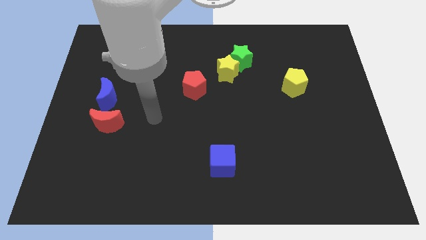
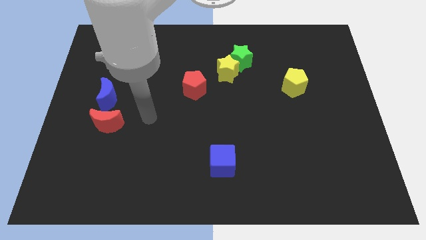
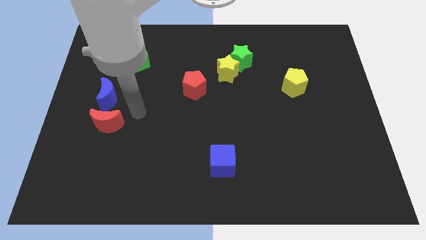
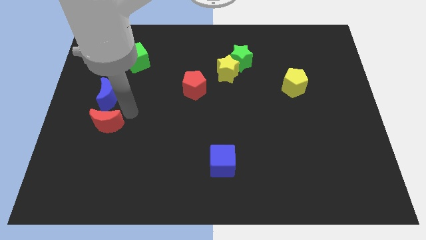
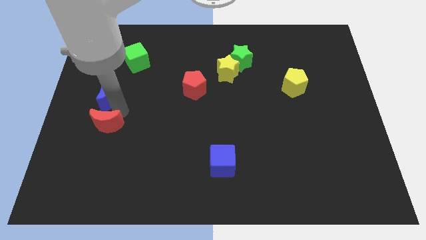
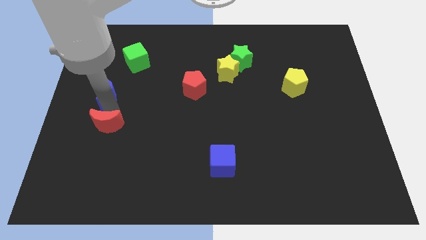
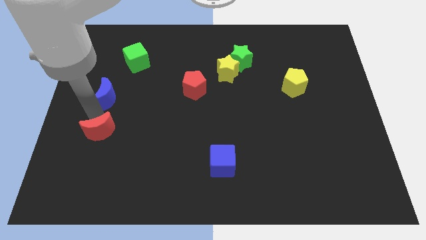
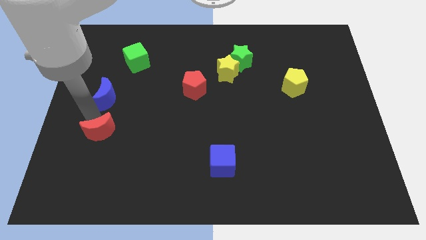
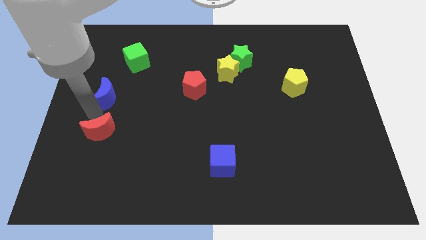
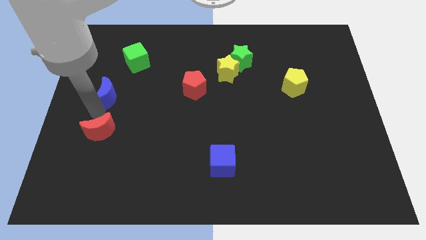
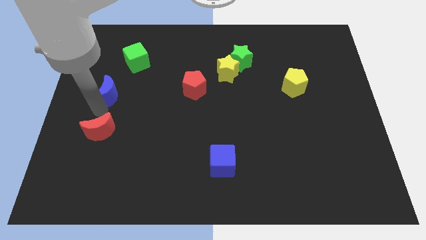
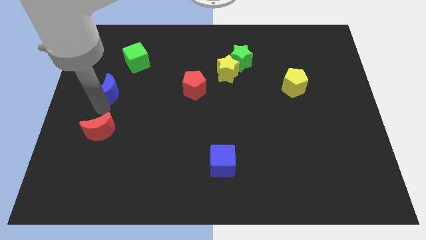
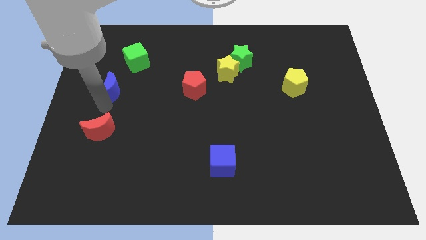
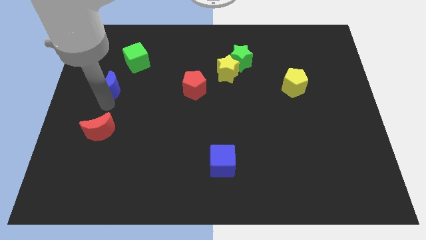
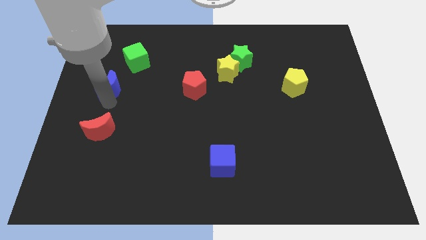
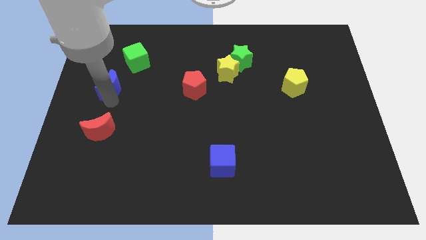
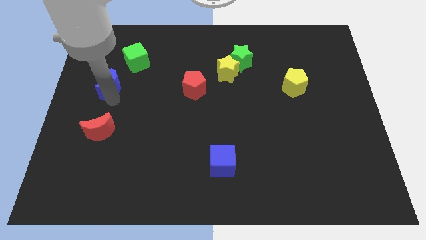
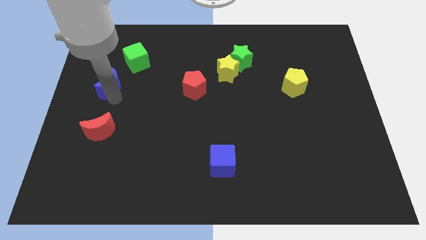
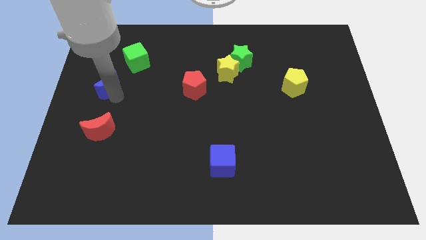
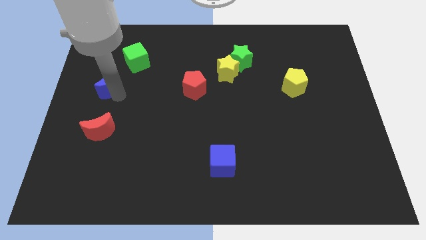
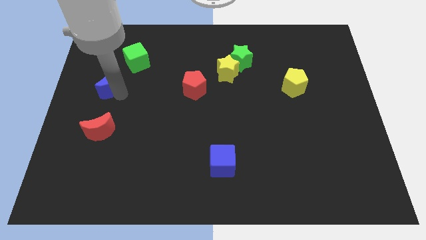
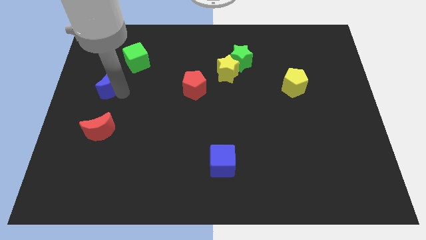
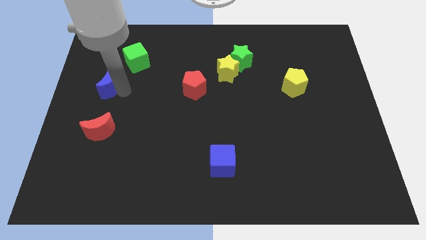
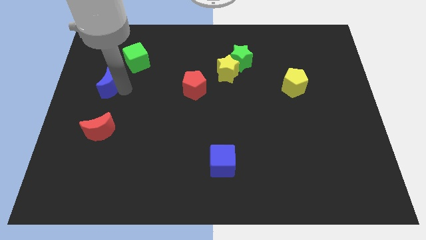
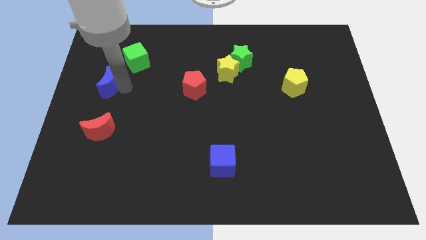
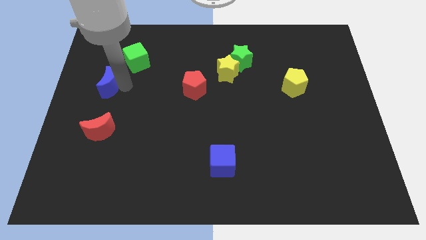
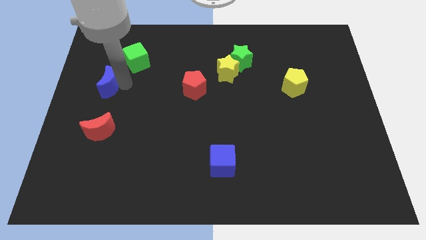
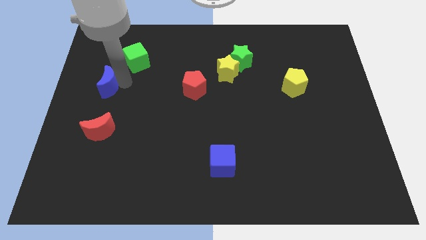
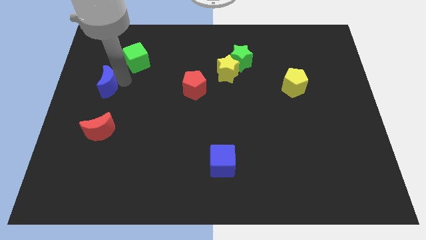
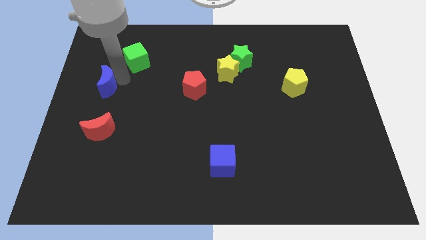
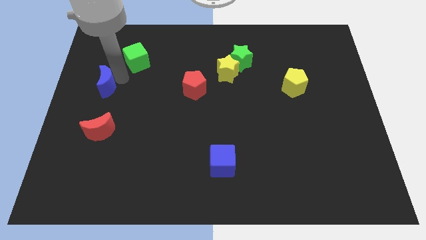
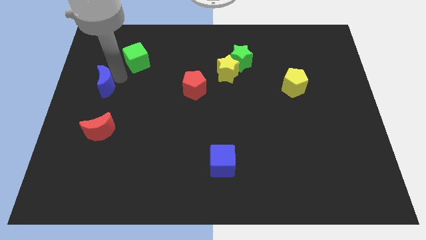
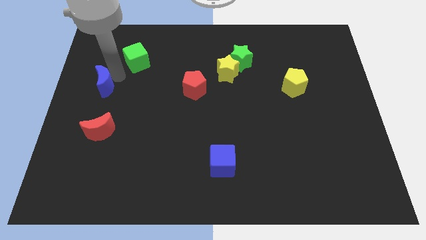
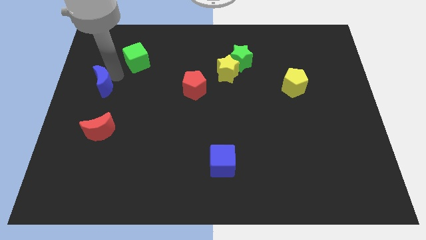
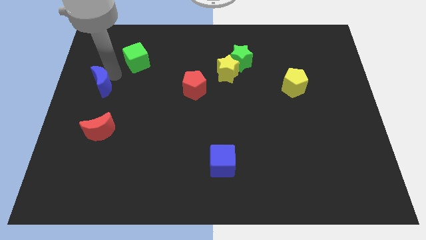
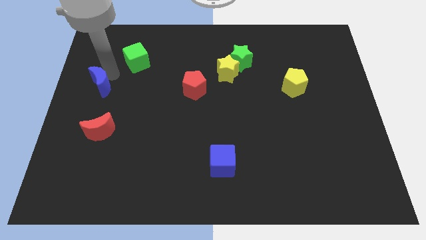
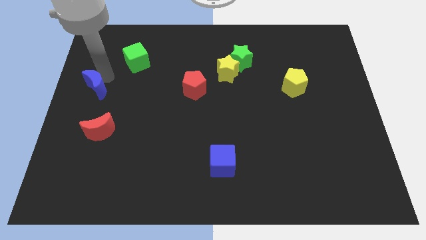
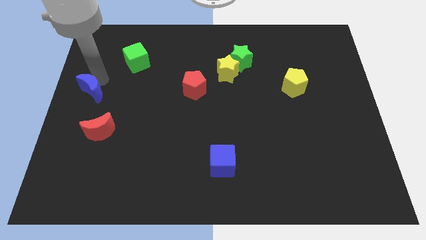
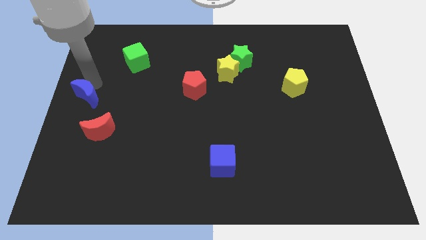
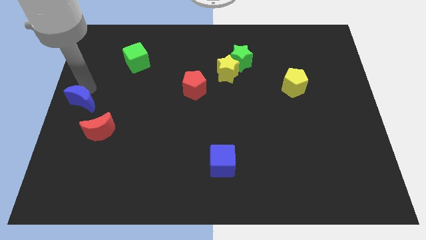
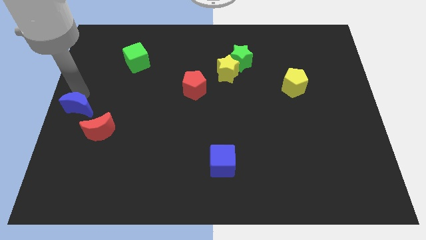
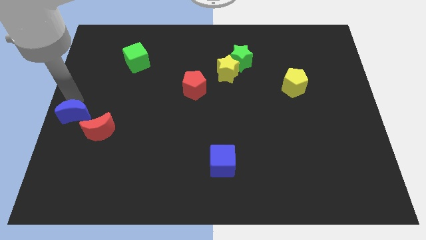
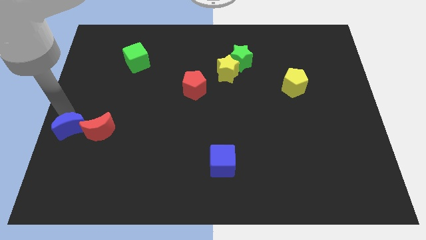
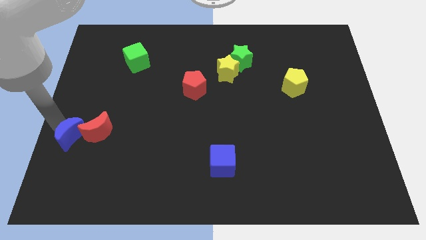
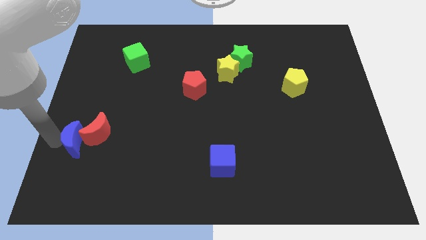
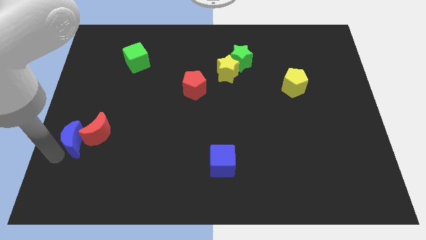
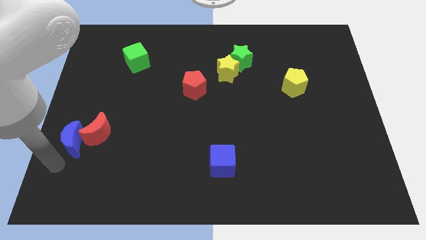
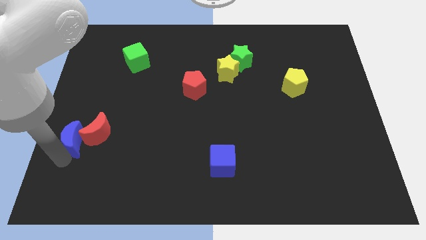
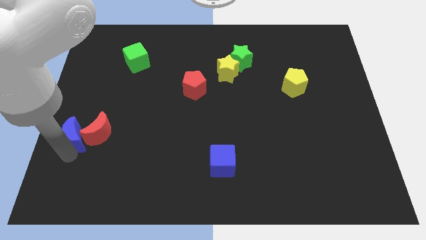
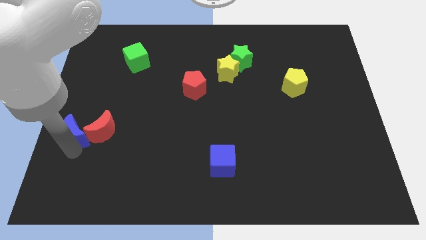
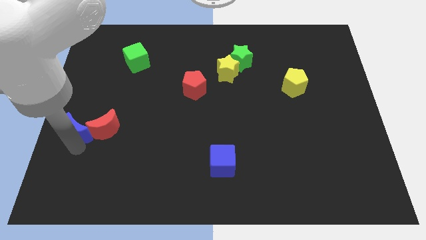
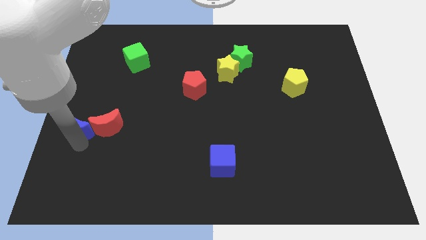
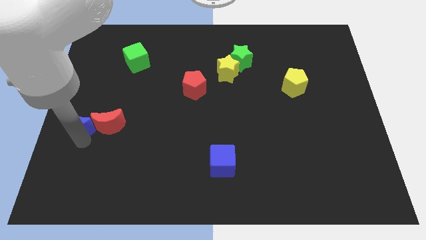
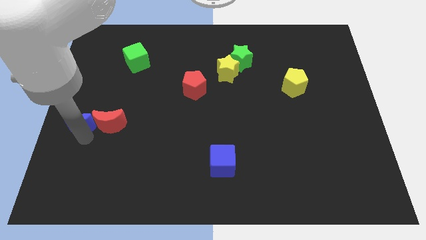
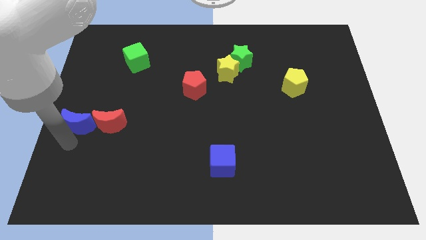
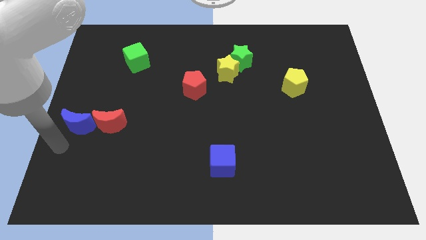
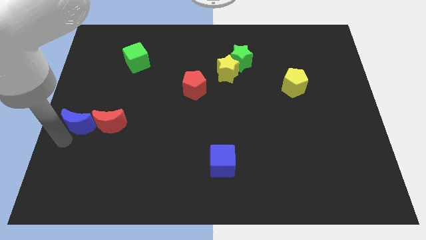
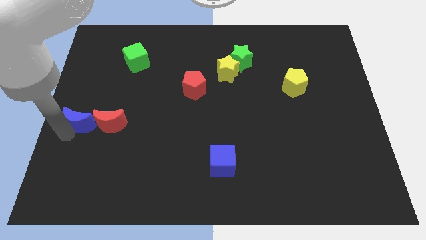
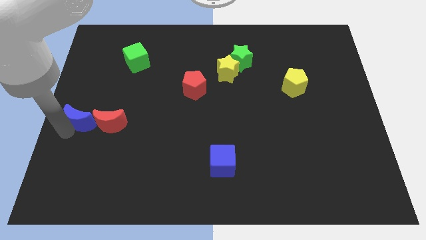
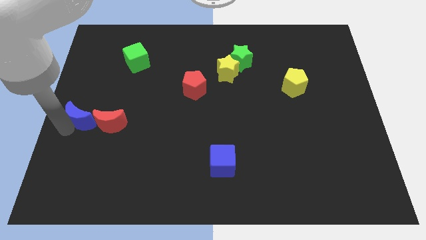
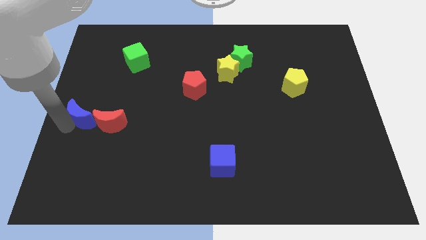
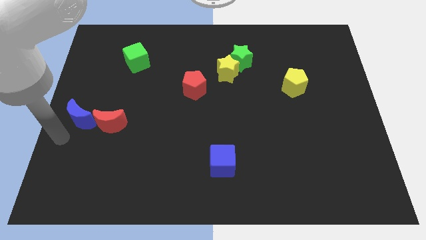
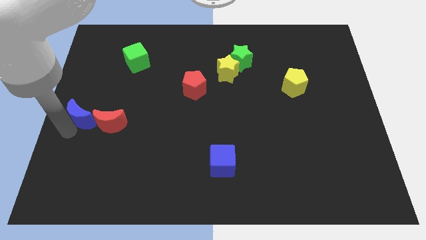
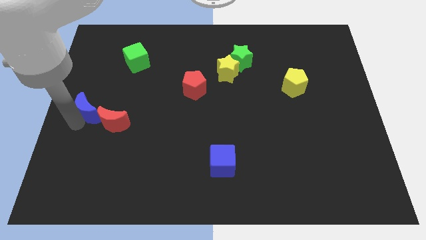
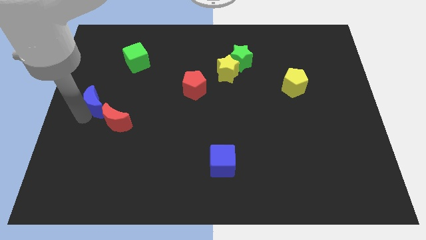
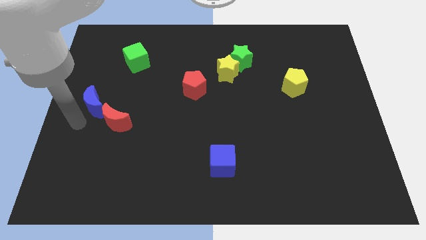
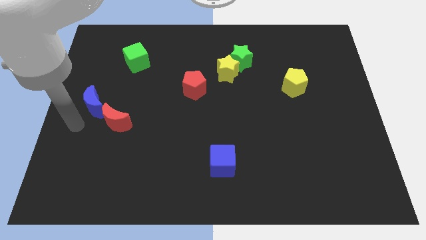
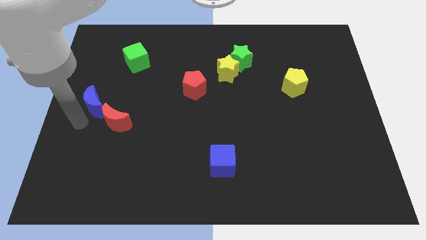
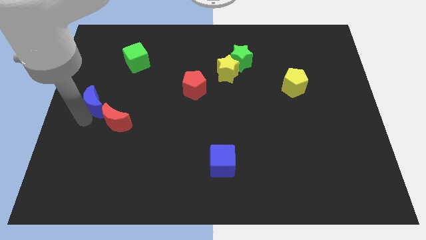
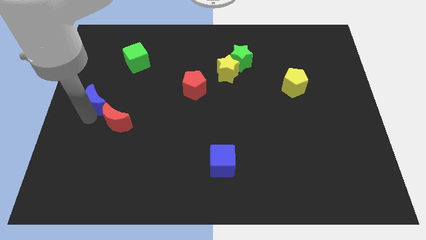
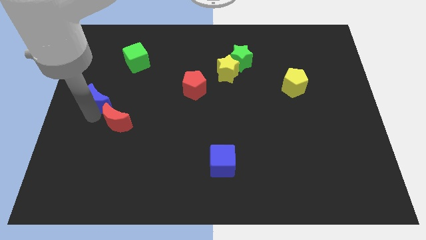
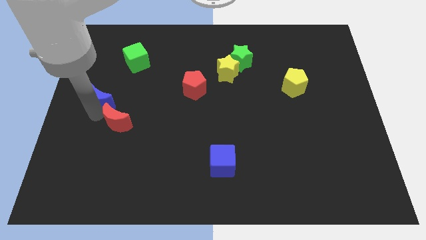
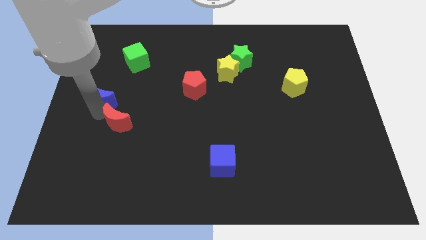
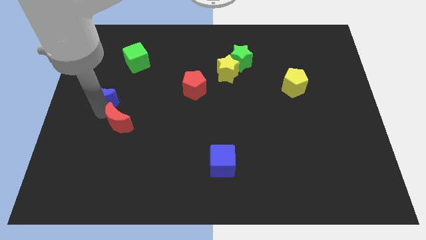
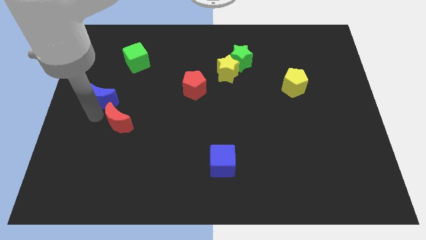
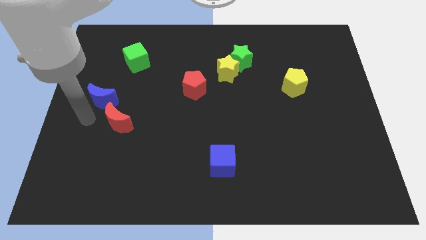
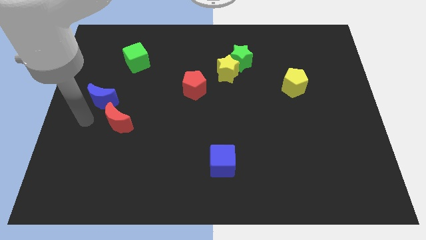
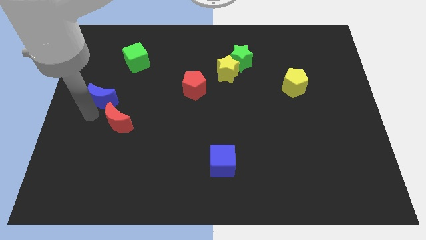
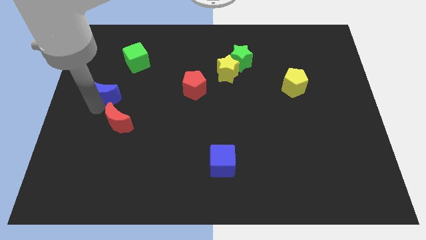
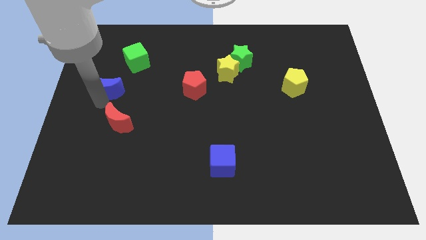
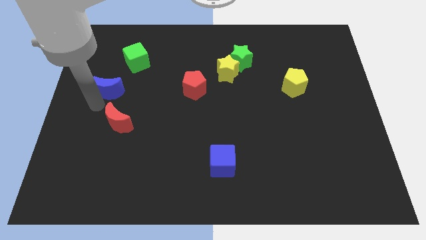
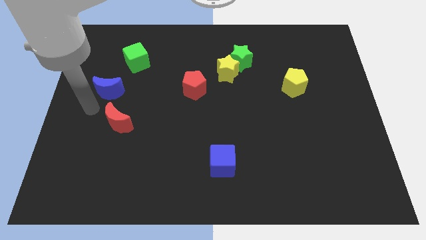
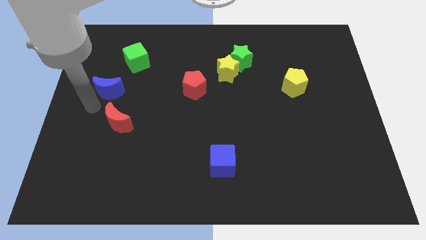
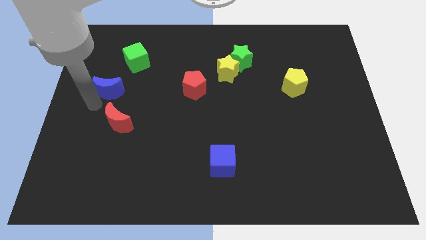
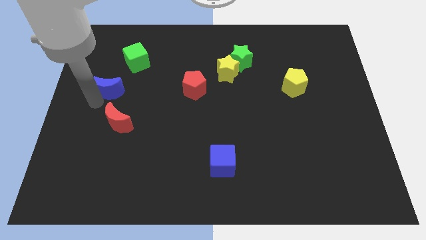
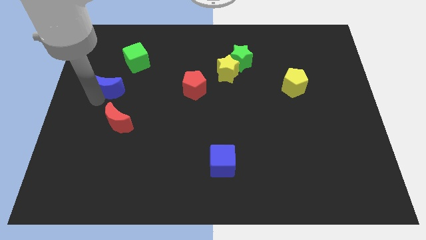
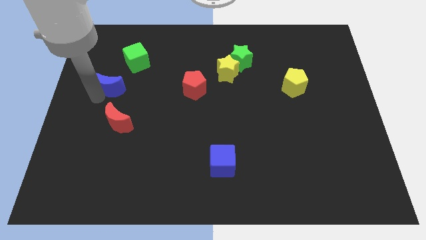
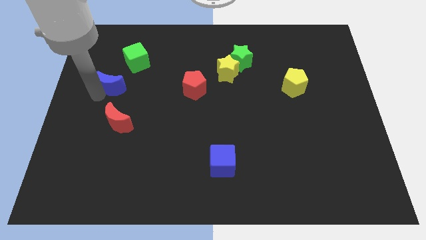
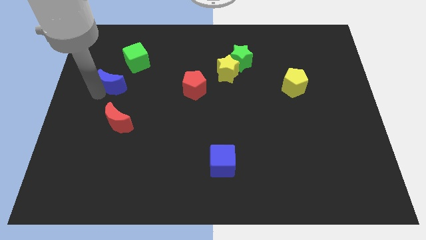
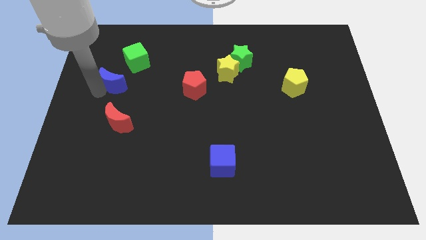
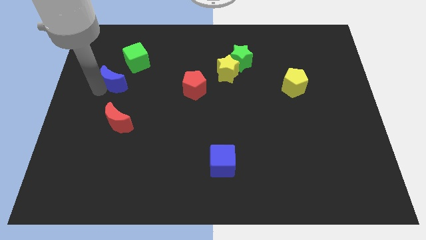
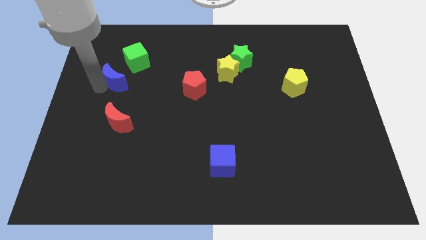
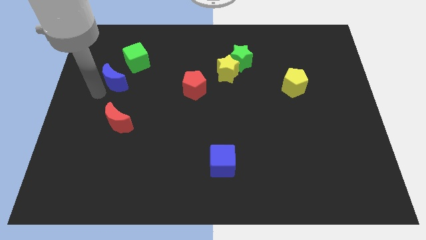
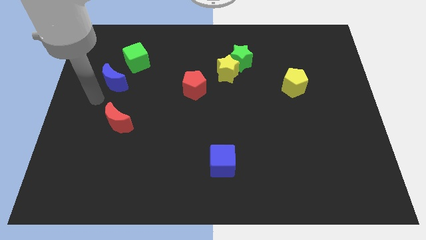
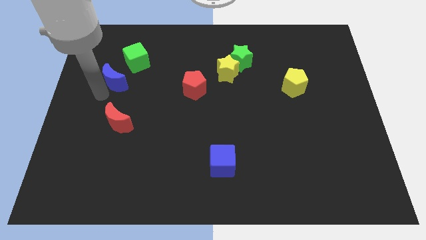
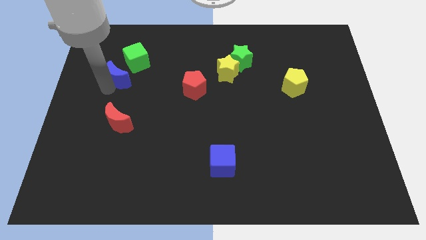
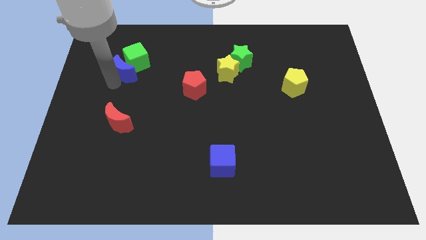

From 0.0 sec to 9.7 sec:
push the blue moon towards the green cube
